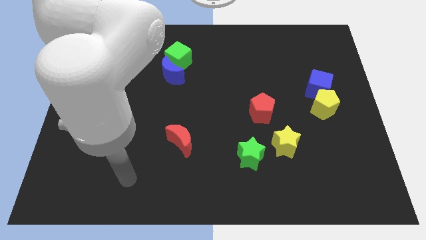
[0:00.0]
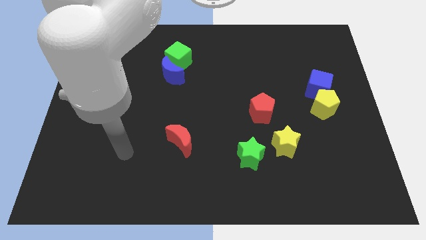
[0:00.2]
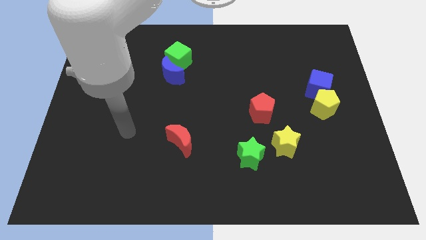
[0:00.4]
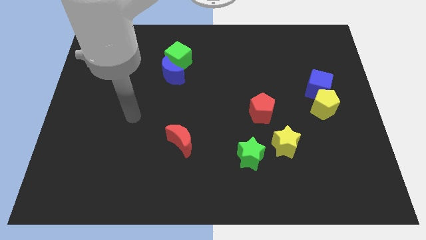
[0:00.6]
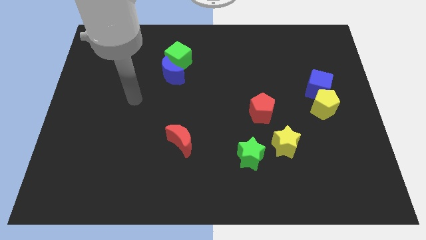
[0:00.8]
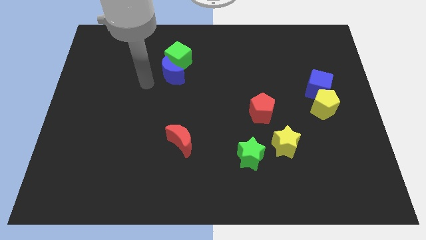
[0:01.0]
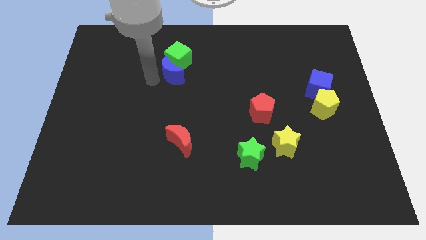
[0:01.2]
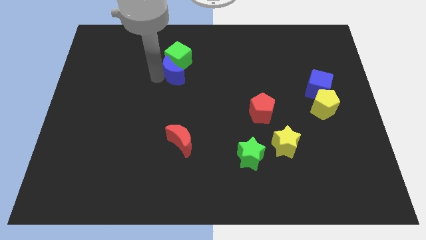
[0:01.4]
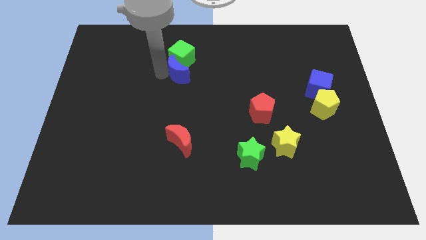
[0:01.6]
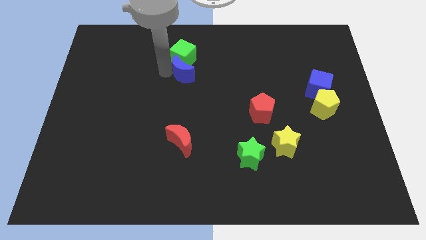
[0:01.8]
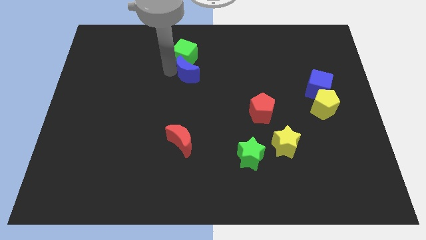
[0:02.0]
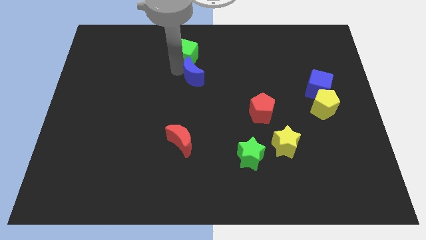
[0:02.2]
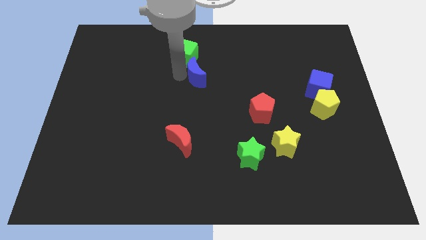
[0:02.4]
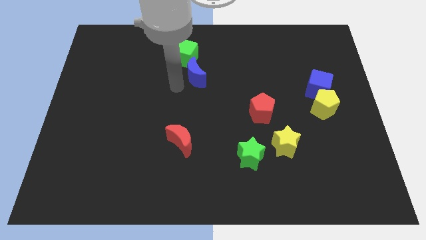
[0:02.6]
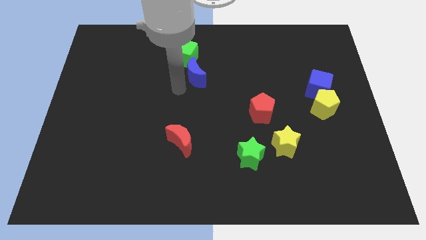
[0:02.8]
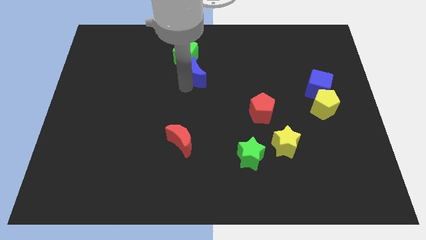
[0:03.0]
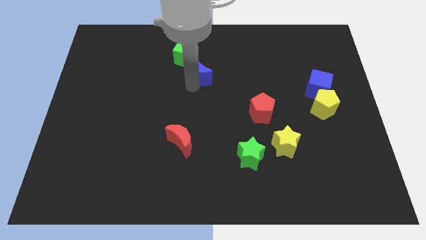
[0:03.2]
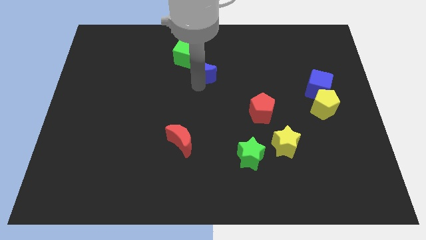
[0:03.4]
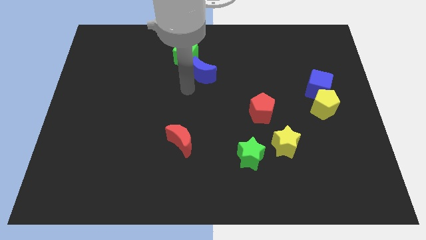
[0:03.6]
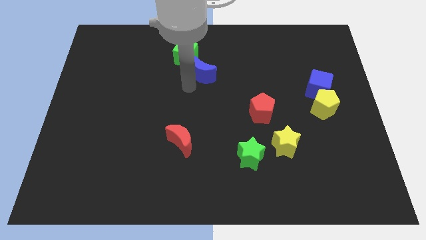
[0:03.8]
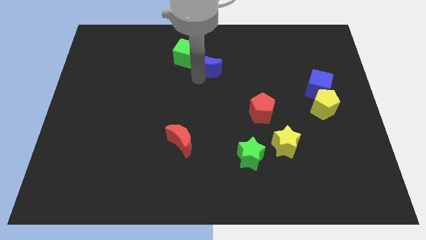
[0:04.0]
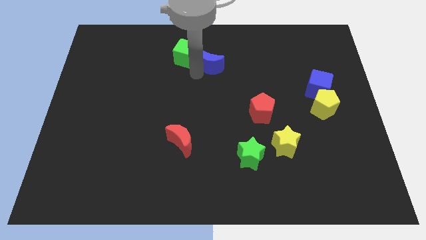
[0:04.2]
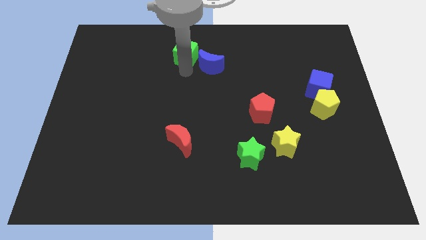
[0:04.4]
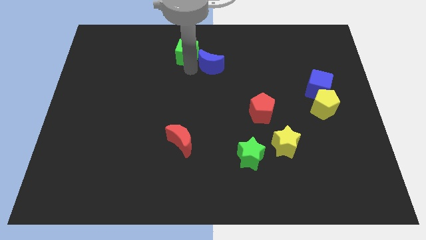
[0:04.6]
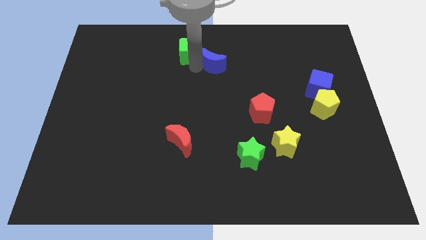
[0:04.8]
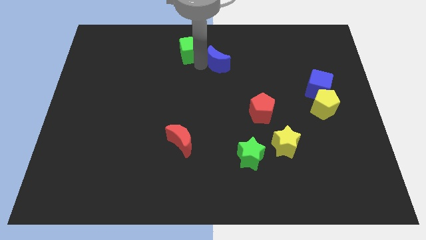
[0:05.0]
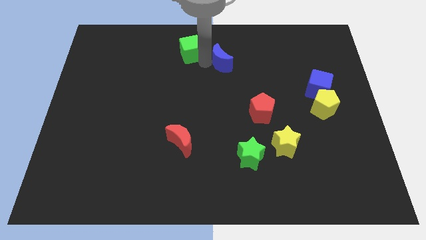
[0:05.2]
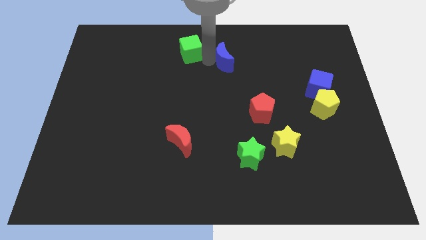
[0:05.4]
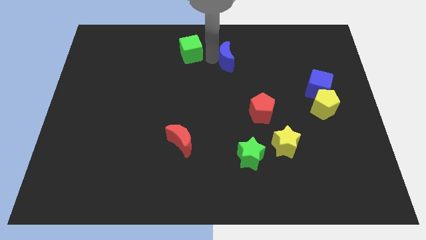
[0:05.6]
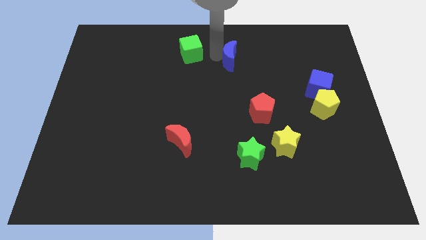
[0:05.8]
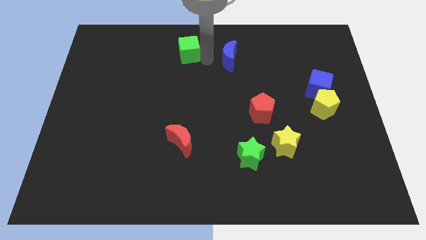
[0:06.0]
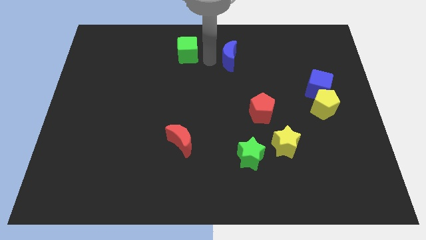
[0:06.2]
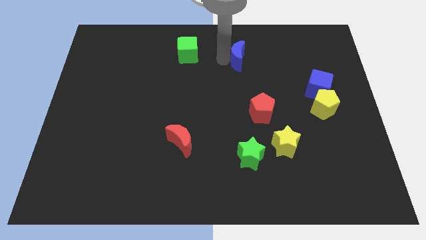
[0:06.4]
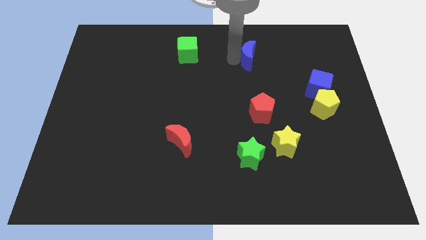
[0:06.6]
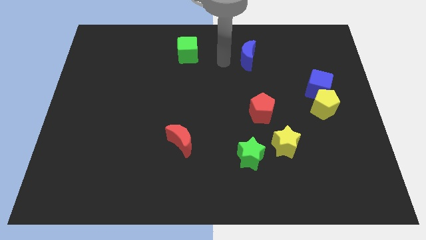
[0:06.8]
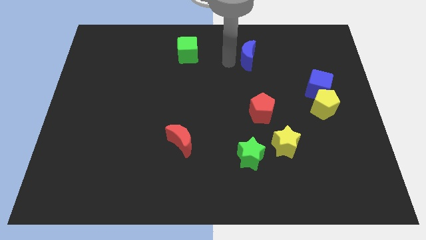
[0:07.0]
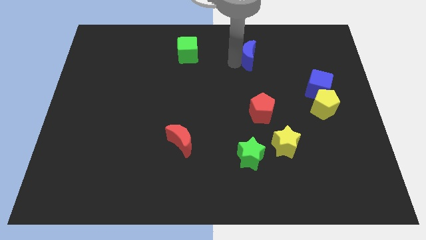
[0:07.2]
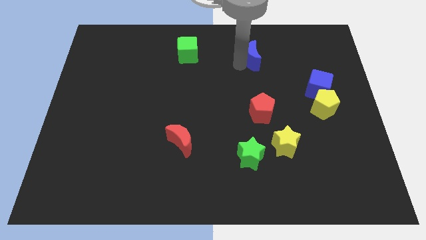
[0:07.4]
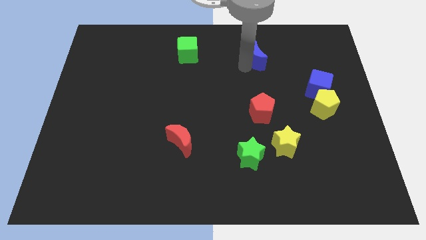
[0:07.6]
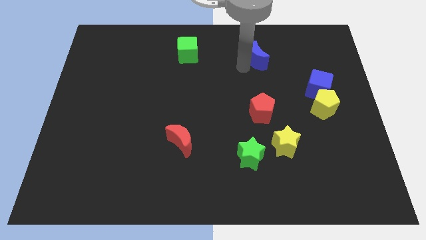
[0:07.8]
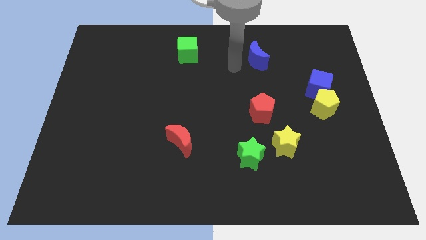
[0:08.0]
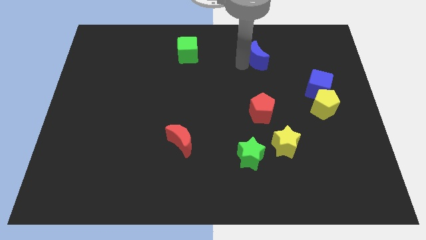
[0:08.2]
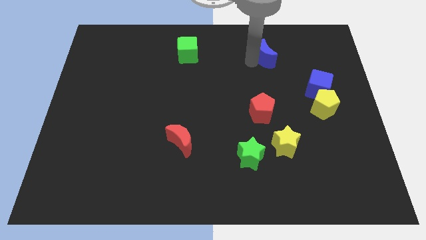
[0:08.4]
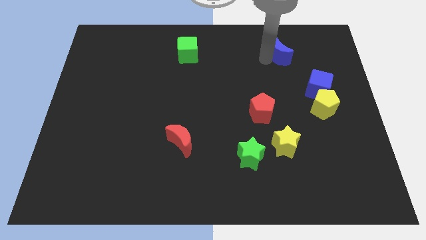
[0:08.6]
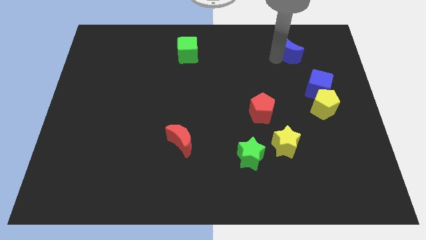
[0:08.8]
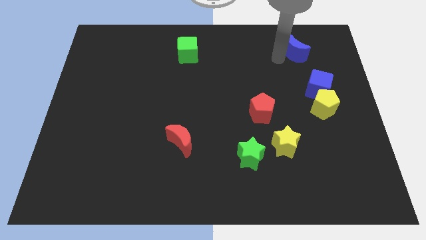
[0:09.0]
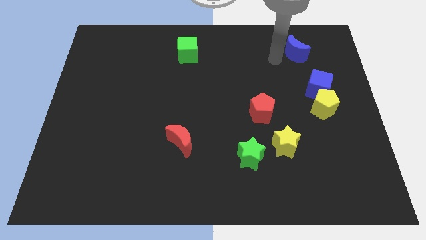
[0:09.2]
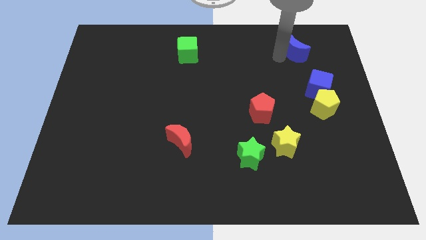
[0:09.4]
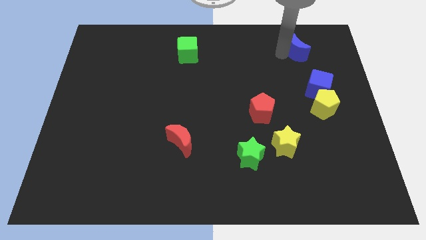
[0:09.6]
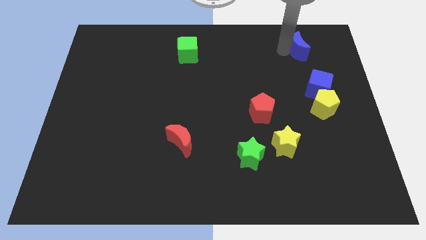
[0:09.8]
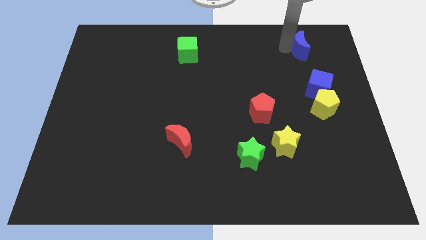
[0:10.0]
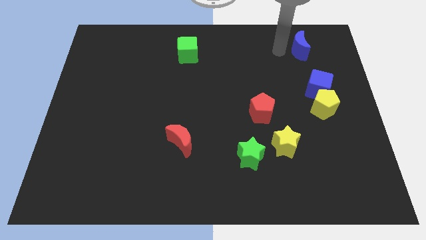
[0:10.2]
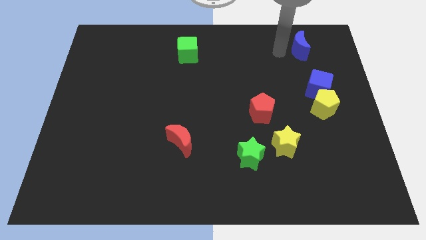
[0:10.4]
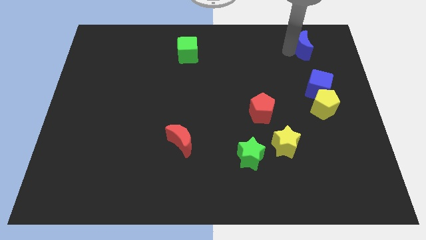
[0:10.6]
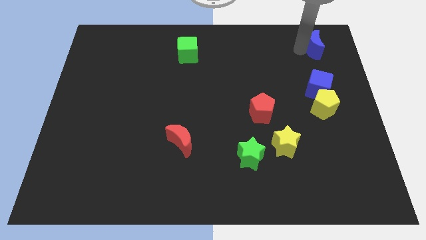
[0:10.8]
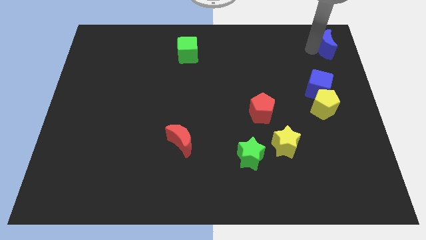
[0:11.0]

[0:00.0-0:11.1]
put the blue moon to the top right of the board

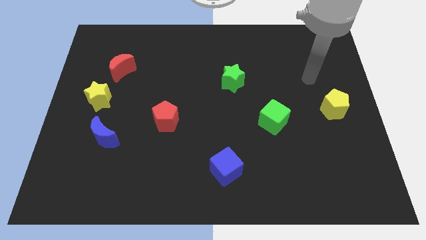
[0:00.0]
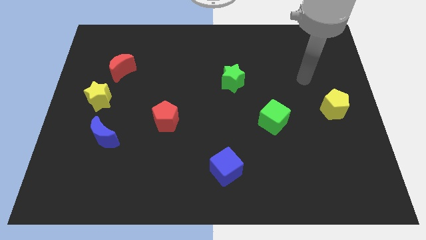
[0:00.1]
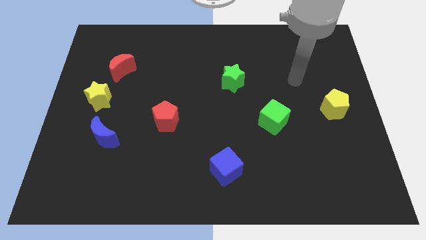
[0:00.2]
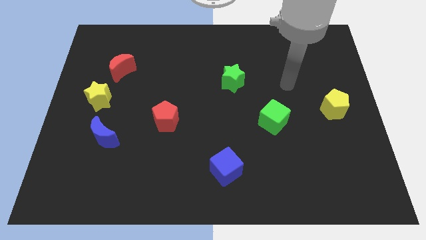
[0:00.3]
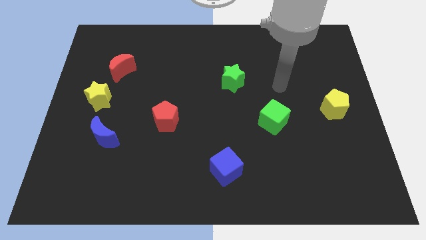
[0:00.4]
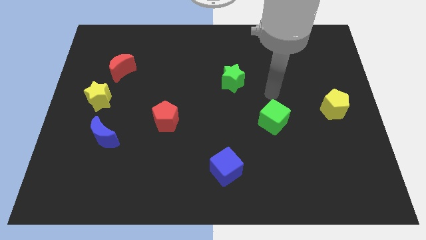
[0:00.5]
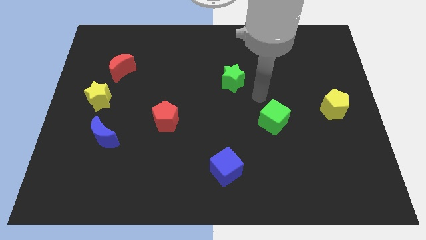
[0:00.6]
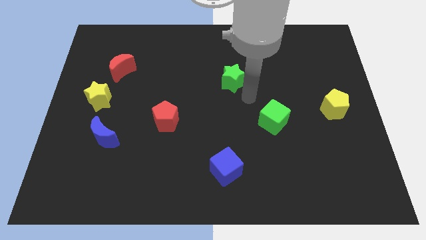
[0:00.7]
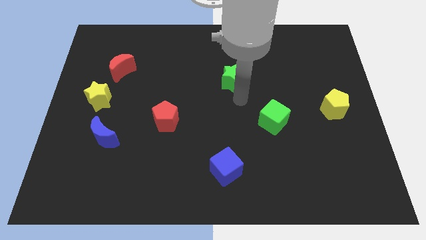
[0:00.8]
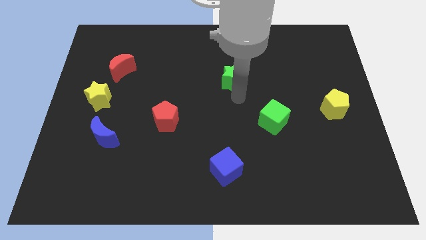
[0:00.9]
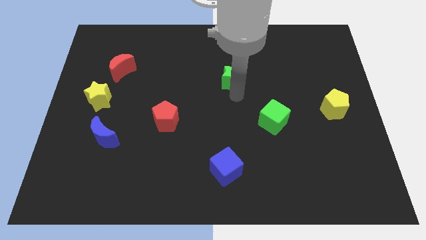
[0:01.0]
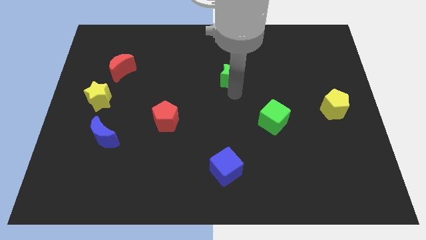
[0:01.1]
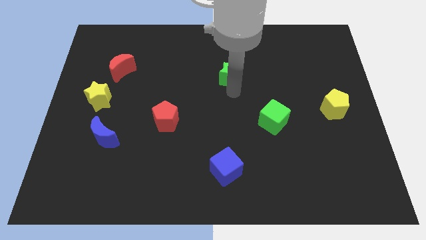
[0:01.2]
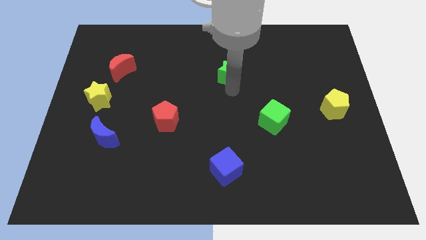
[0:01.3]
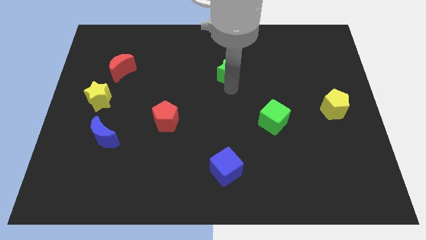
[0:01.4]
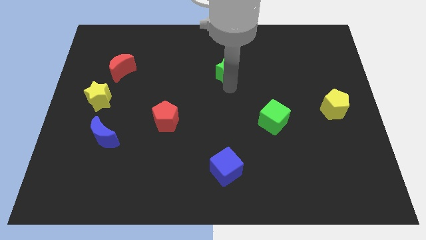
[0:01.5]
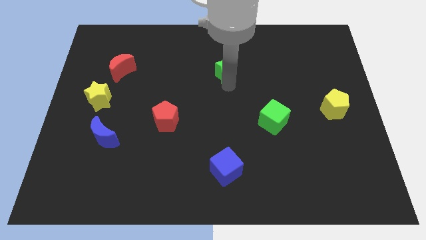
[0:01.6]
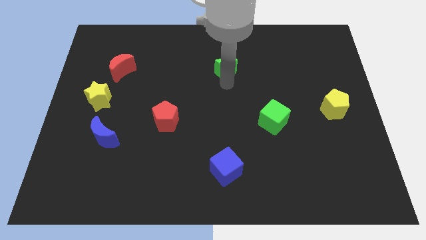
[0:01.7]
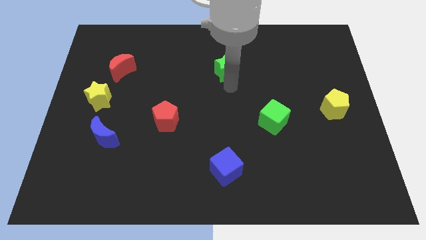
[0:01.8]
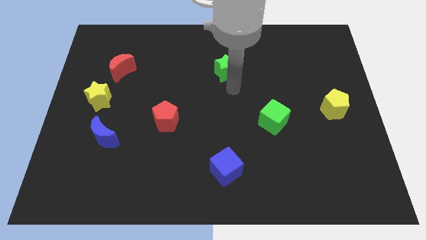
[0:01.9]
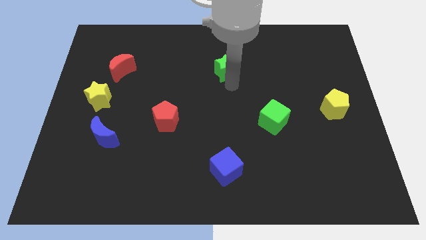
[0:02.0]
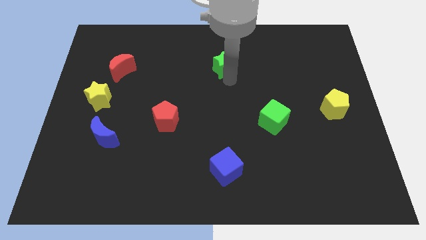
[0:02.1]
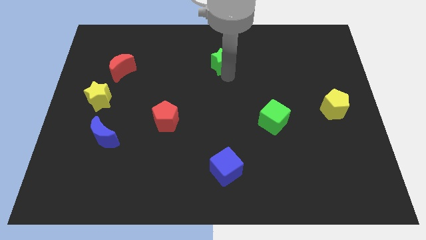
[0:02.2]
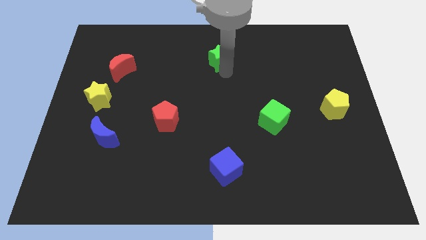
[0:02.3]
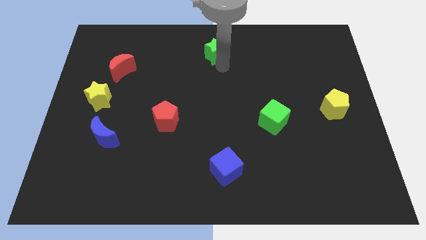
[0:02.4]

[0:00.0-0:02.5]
put the green star to the top
